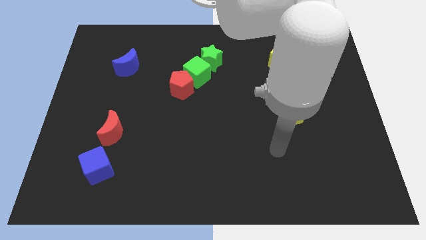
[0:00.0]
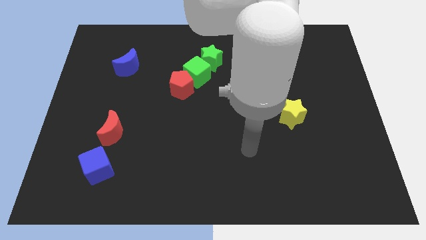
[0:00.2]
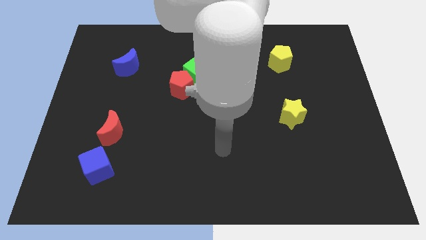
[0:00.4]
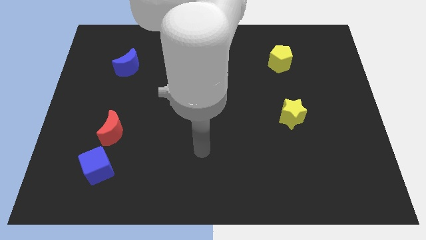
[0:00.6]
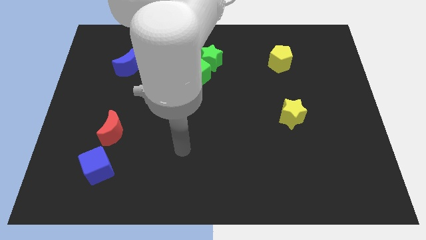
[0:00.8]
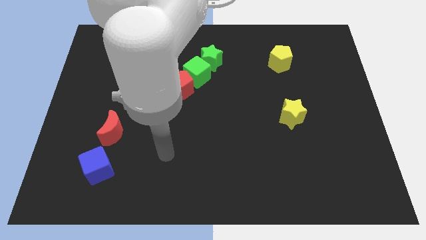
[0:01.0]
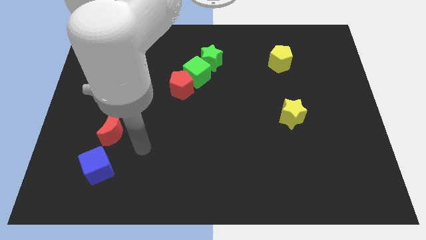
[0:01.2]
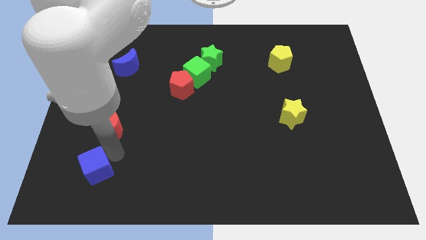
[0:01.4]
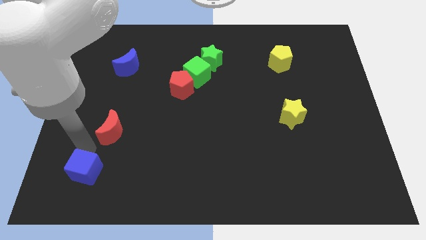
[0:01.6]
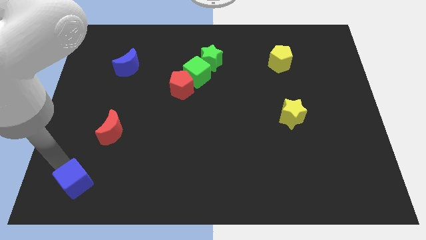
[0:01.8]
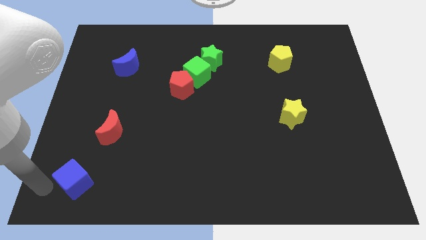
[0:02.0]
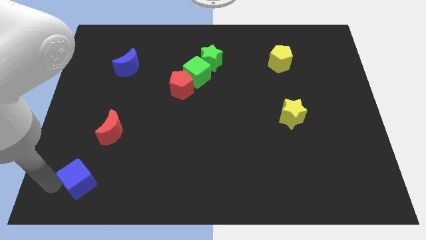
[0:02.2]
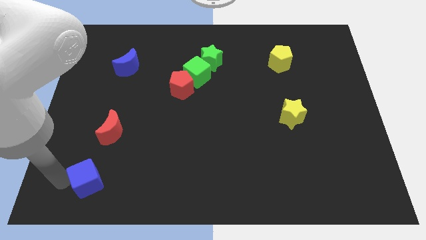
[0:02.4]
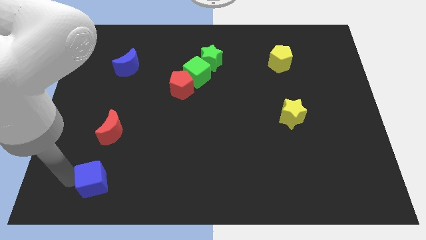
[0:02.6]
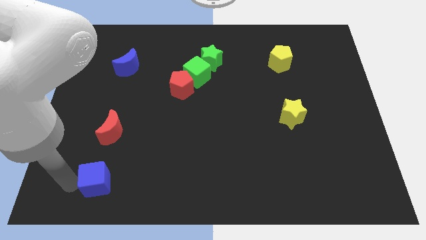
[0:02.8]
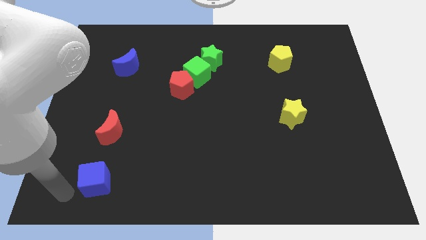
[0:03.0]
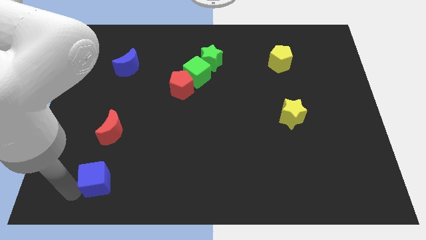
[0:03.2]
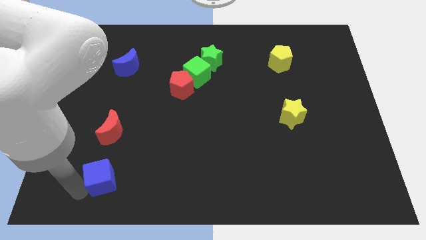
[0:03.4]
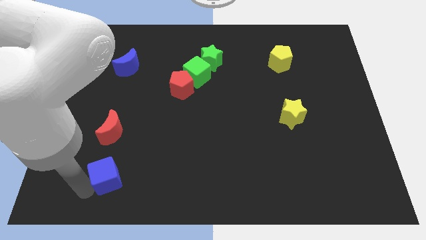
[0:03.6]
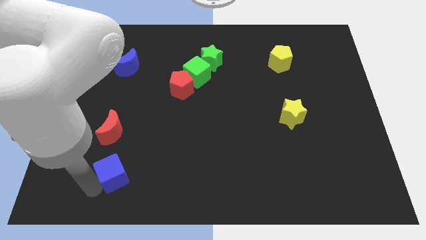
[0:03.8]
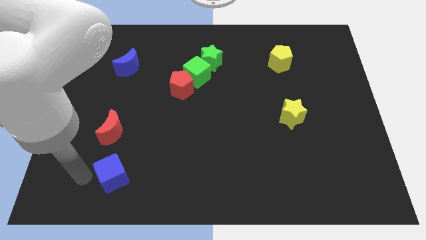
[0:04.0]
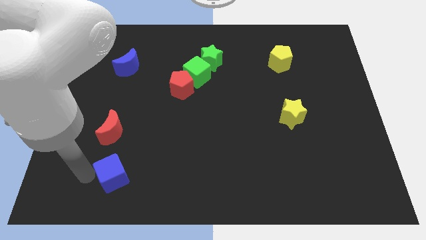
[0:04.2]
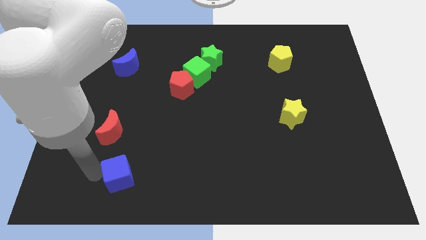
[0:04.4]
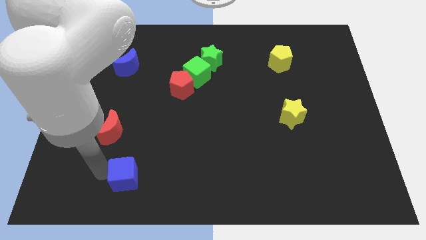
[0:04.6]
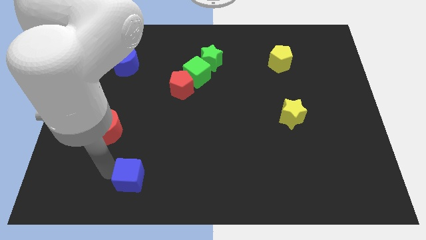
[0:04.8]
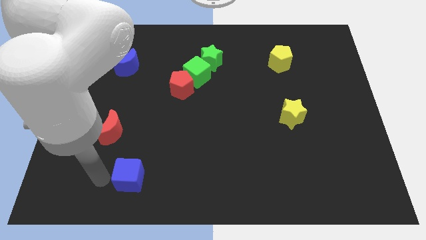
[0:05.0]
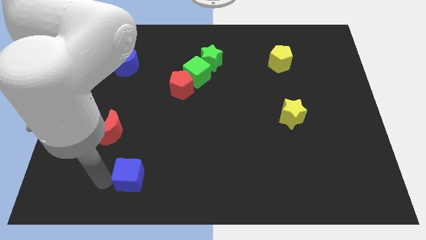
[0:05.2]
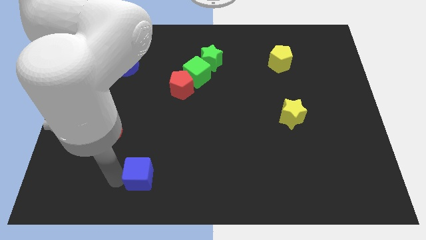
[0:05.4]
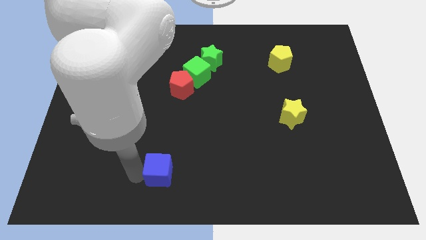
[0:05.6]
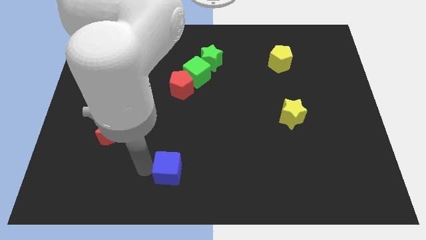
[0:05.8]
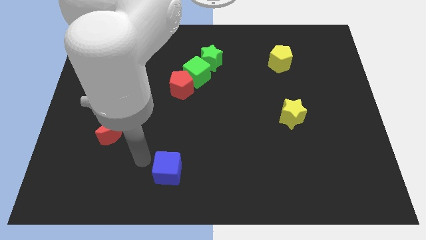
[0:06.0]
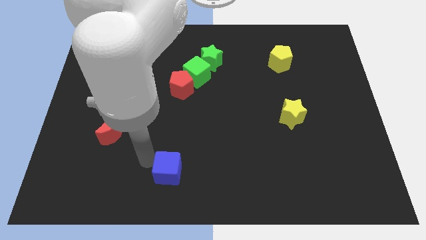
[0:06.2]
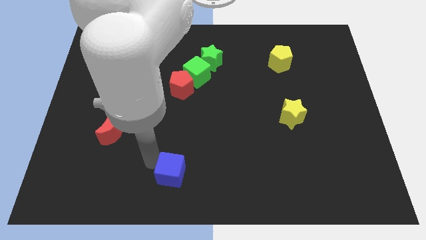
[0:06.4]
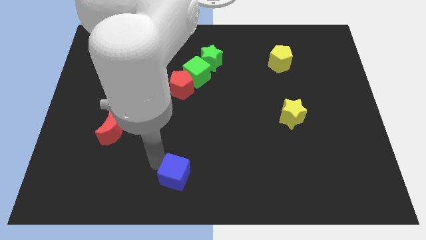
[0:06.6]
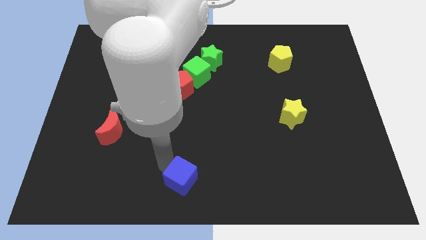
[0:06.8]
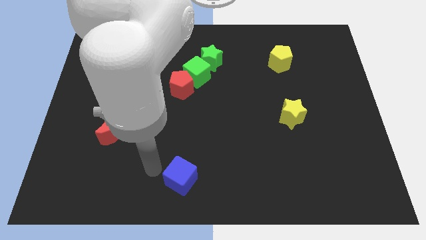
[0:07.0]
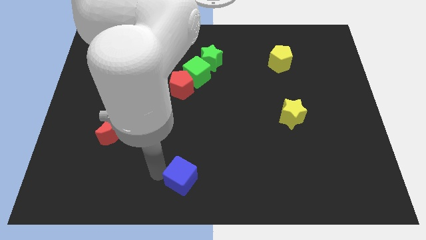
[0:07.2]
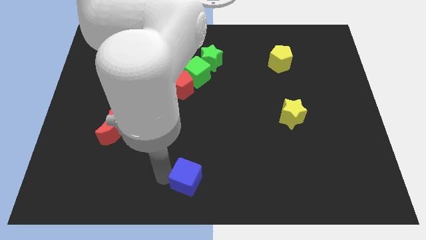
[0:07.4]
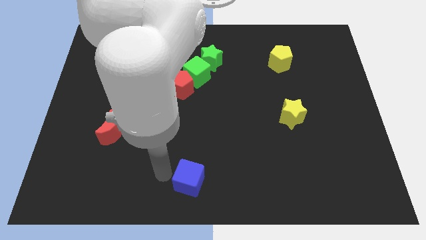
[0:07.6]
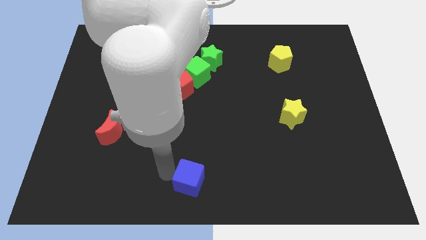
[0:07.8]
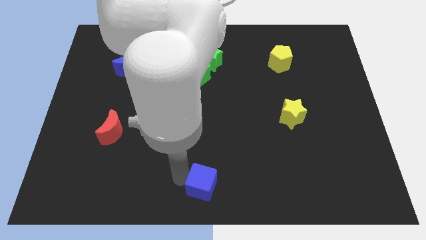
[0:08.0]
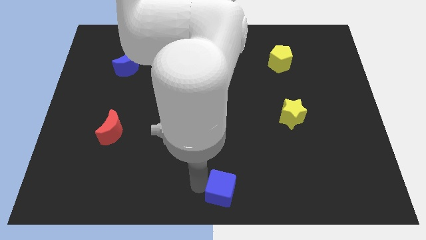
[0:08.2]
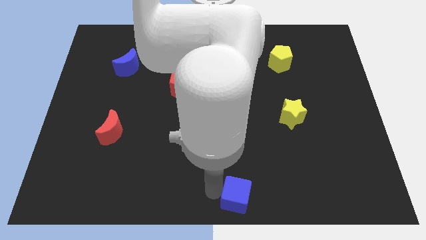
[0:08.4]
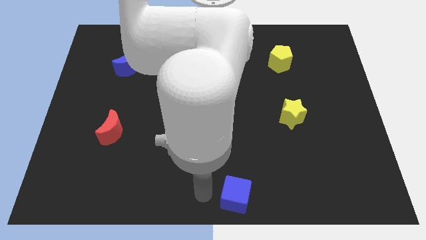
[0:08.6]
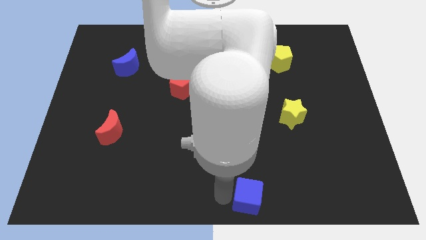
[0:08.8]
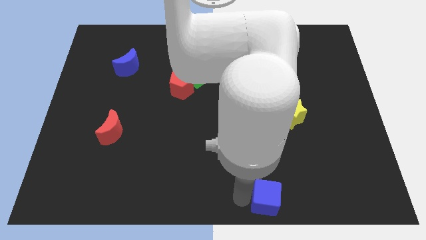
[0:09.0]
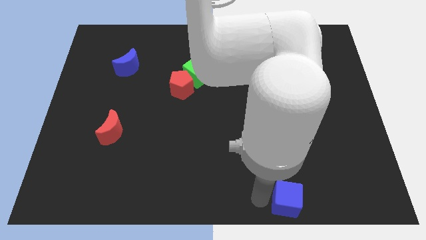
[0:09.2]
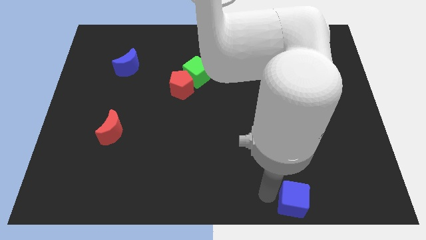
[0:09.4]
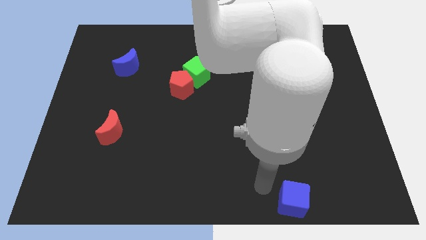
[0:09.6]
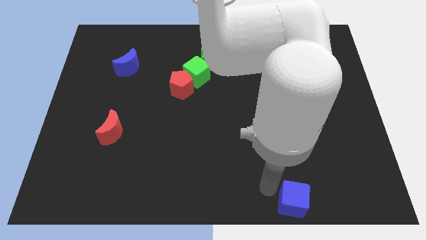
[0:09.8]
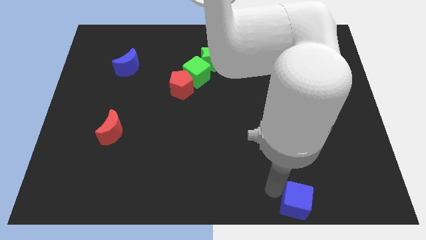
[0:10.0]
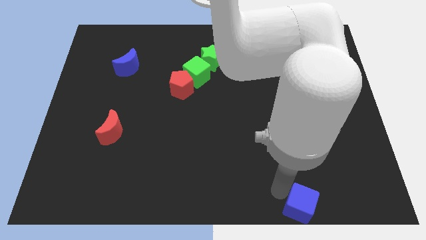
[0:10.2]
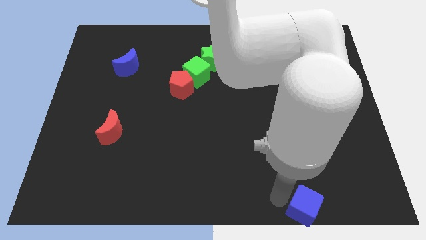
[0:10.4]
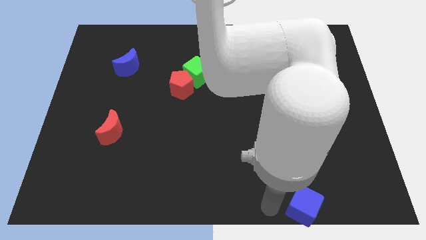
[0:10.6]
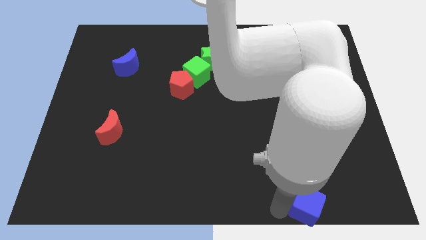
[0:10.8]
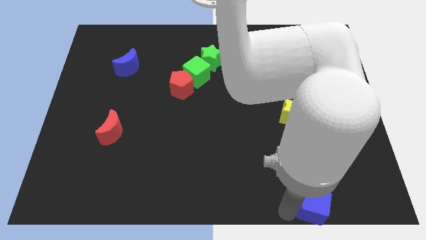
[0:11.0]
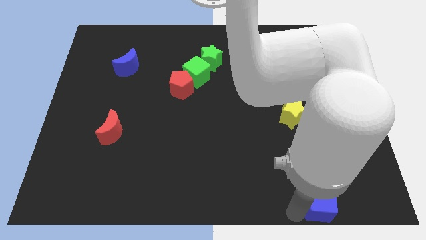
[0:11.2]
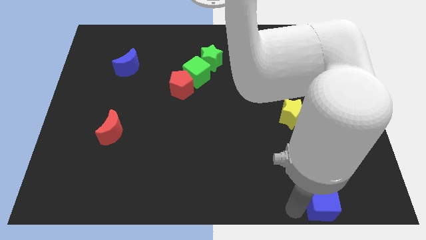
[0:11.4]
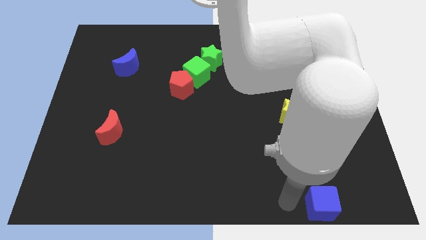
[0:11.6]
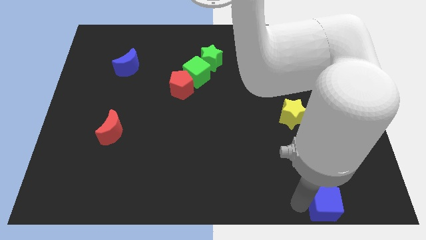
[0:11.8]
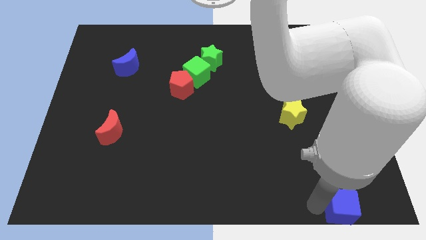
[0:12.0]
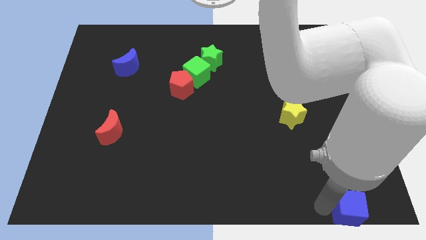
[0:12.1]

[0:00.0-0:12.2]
move the blue cube to the bottom right of the board

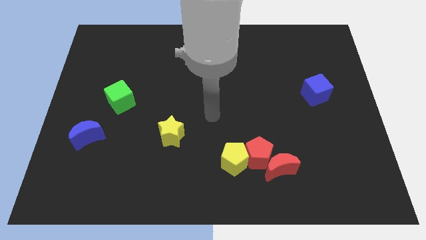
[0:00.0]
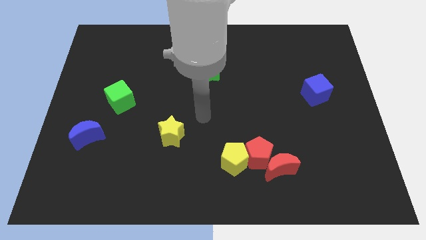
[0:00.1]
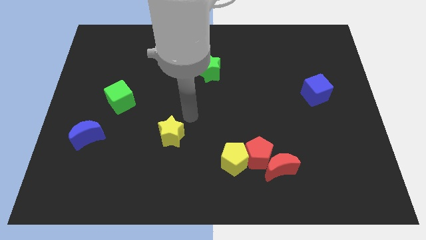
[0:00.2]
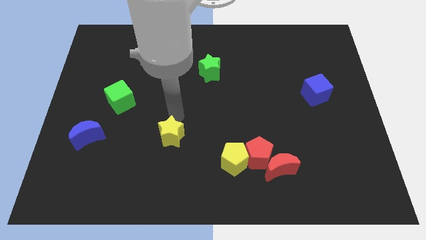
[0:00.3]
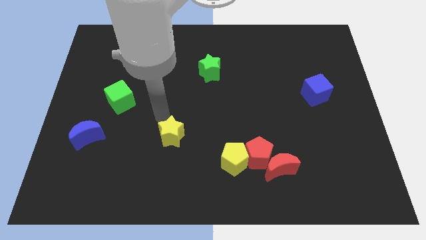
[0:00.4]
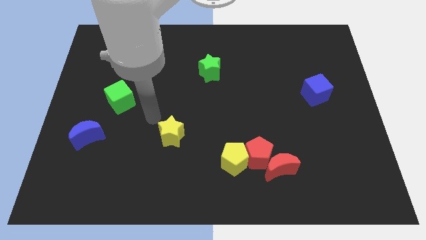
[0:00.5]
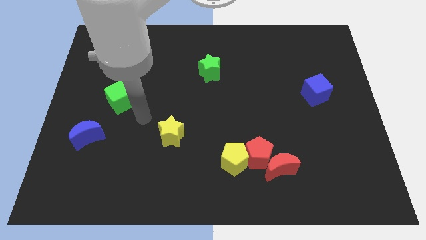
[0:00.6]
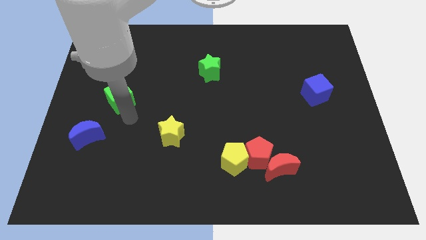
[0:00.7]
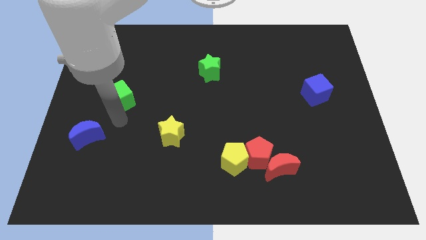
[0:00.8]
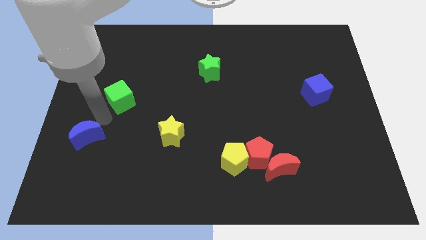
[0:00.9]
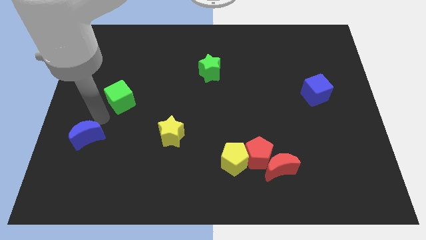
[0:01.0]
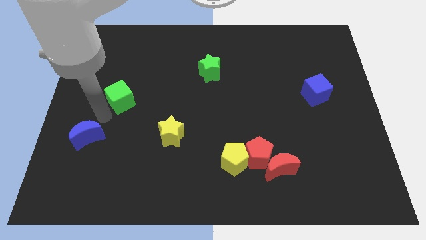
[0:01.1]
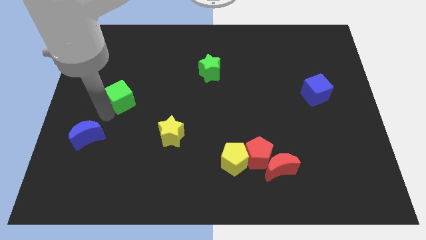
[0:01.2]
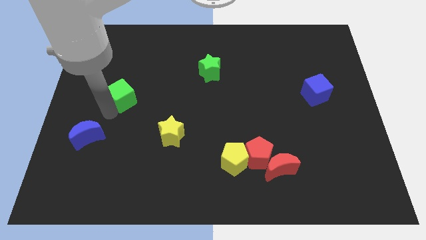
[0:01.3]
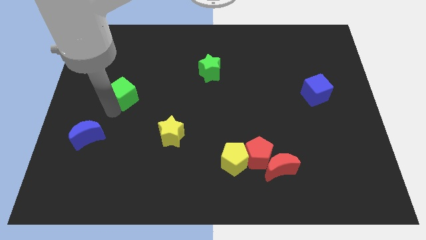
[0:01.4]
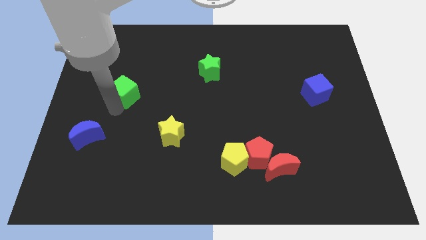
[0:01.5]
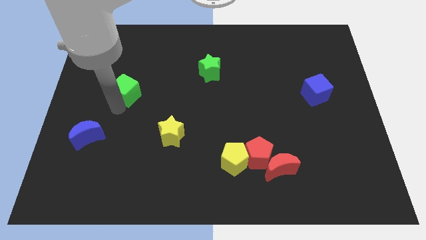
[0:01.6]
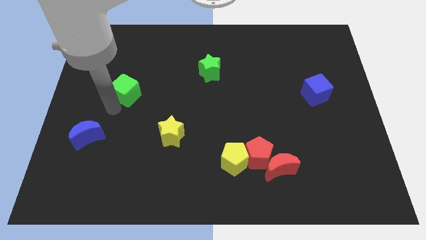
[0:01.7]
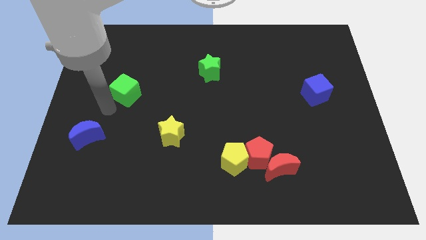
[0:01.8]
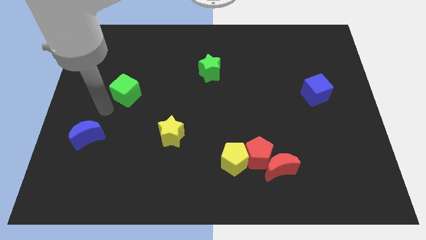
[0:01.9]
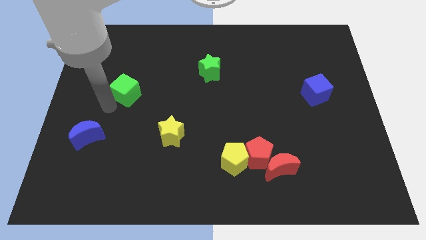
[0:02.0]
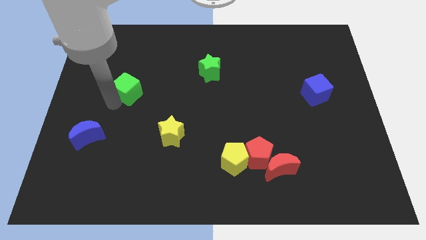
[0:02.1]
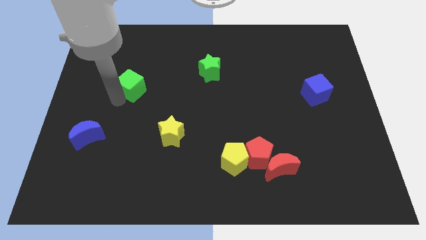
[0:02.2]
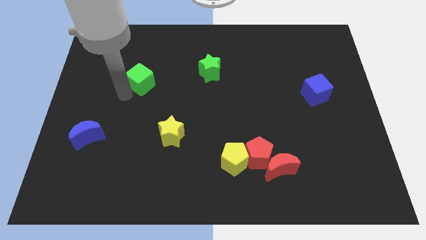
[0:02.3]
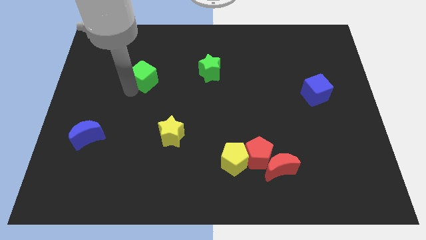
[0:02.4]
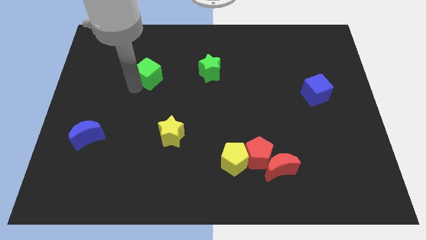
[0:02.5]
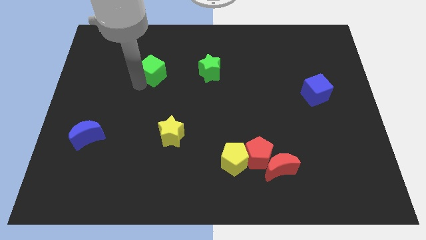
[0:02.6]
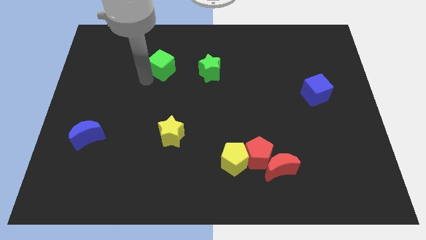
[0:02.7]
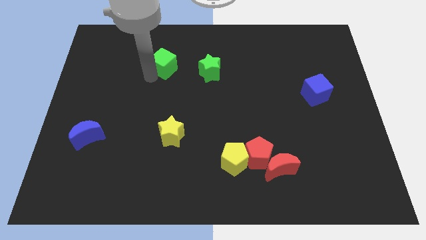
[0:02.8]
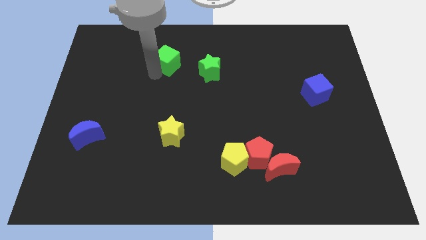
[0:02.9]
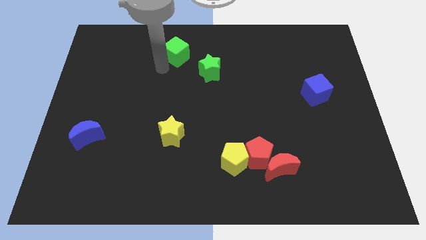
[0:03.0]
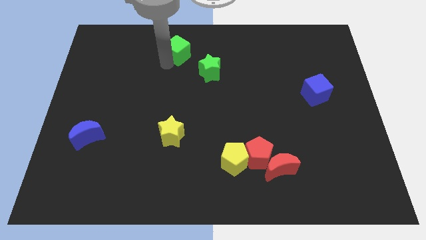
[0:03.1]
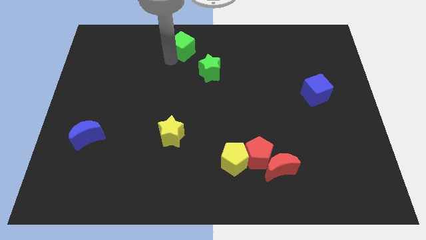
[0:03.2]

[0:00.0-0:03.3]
move the green cube to the top side
